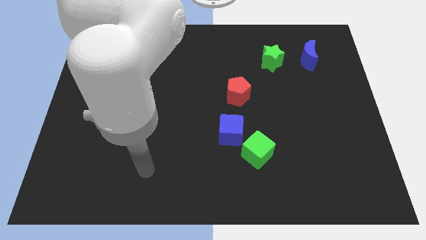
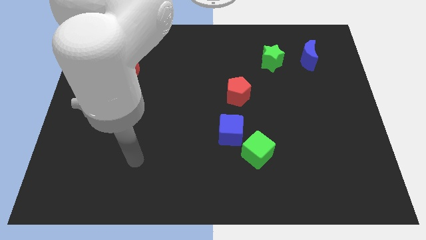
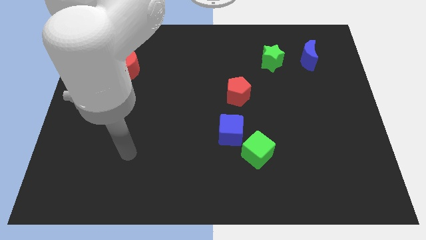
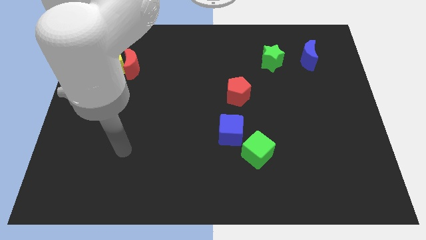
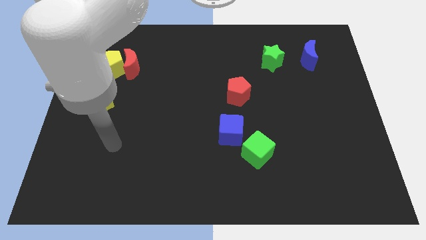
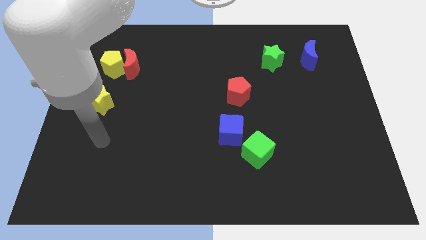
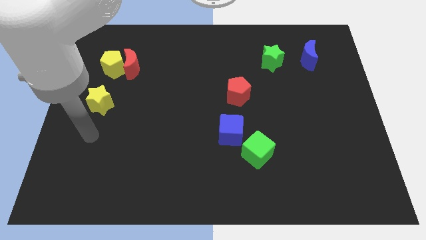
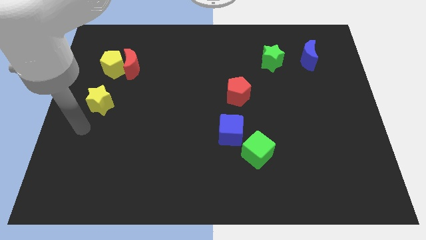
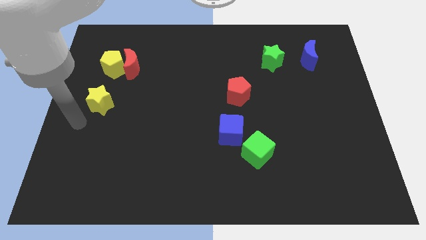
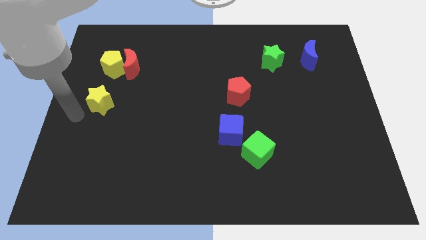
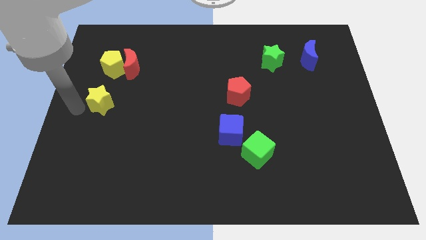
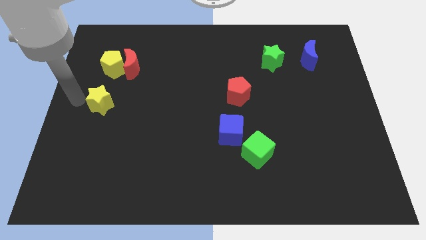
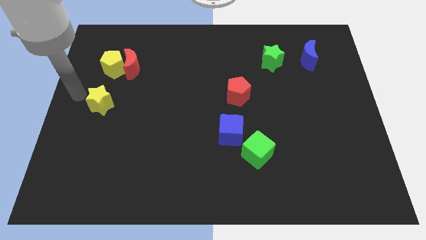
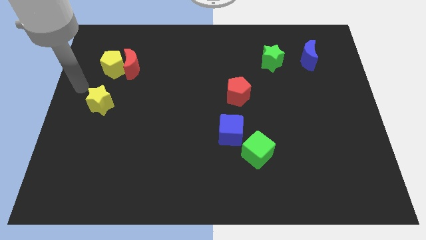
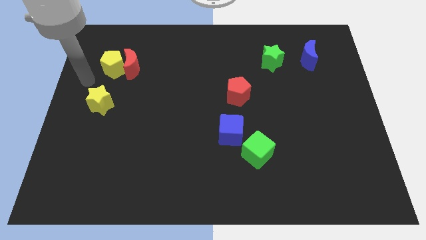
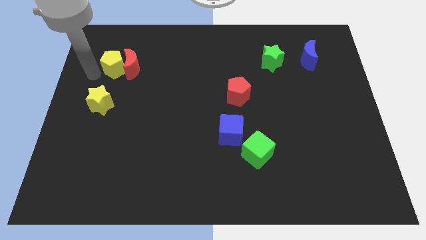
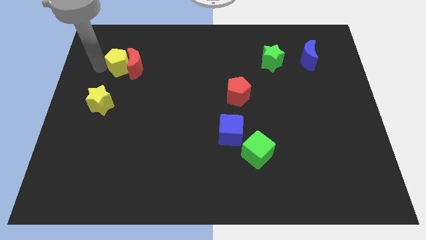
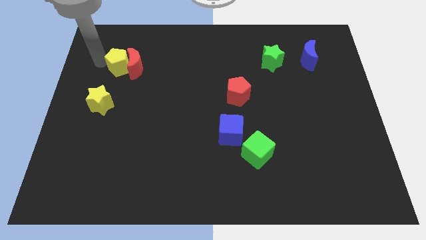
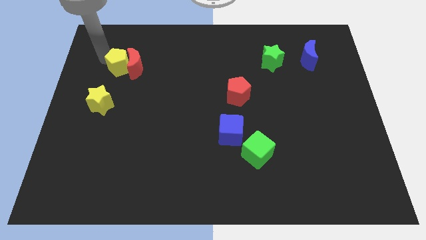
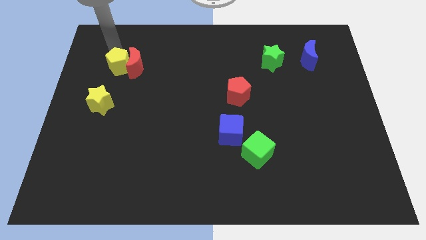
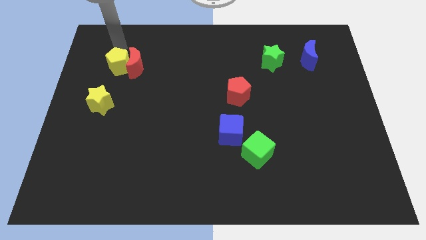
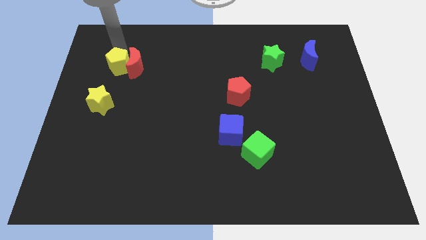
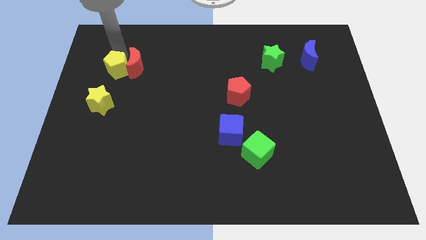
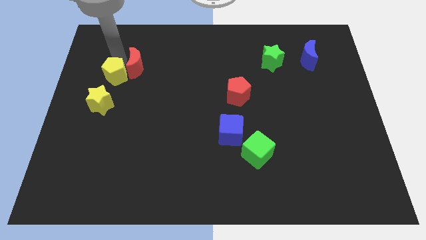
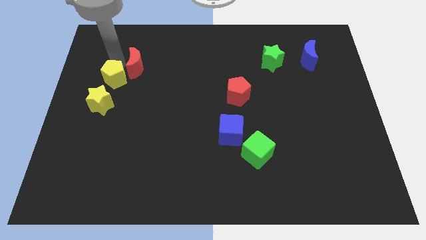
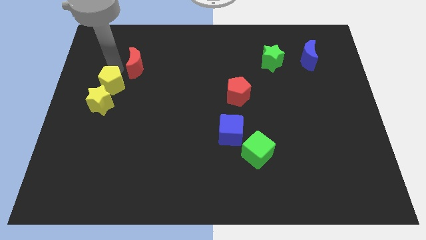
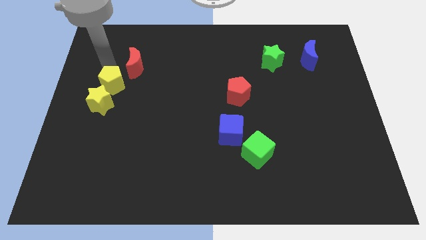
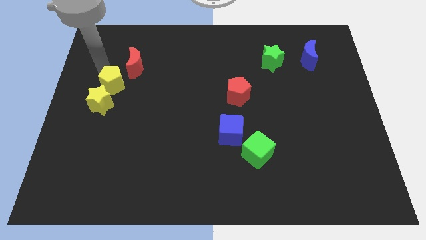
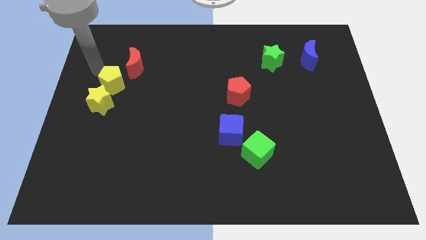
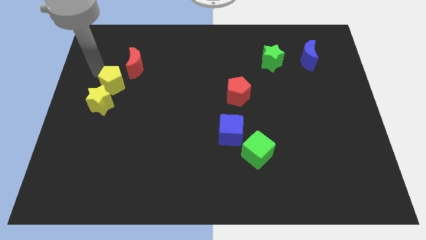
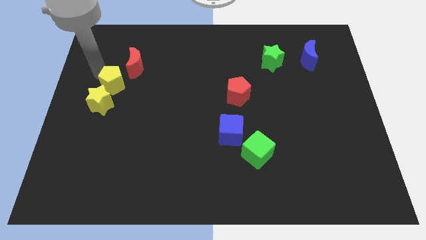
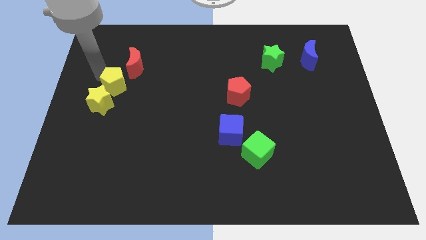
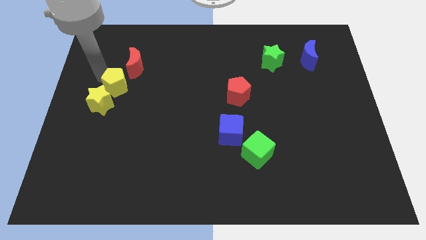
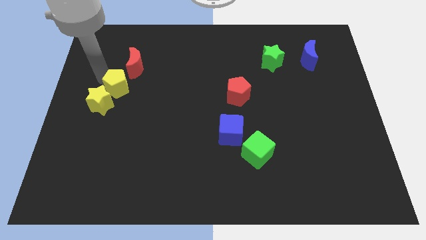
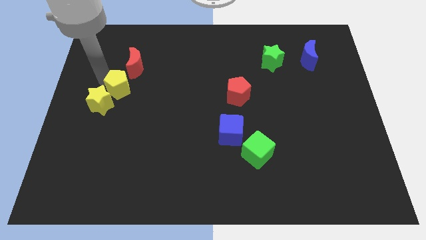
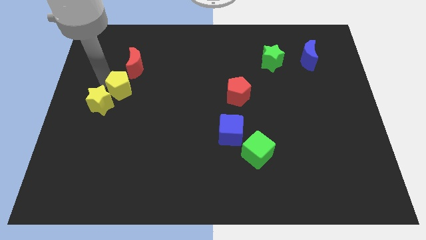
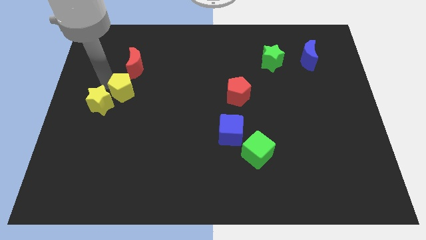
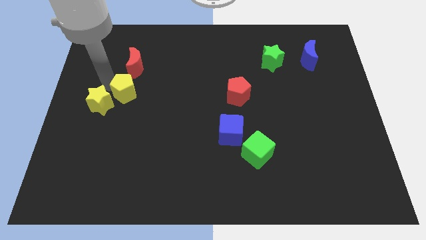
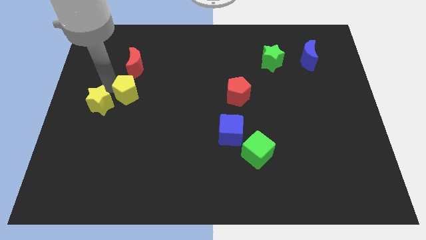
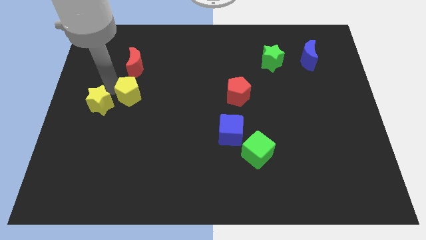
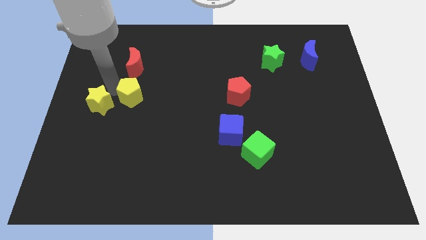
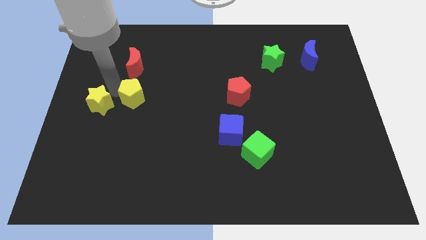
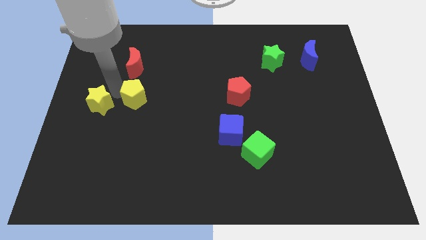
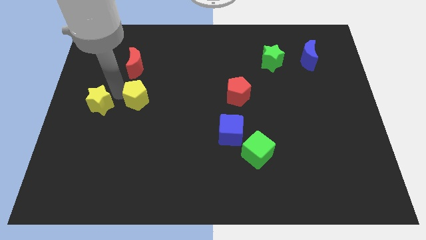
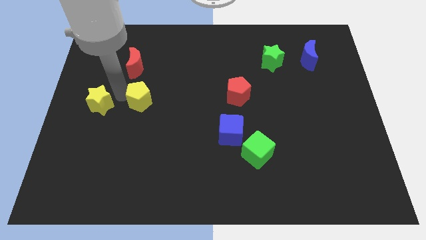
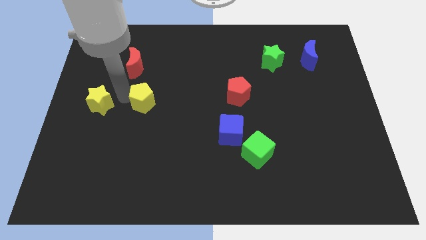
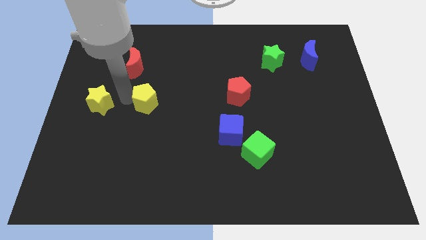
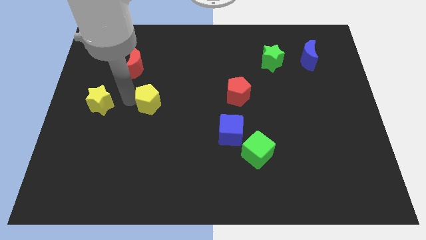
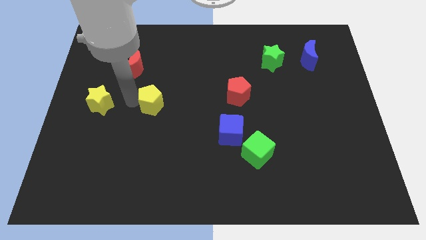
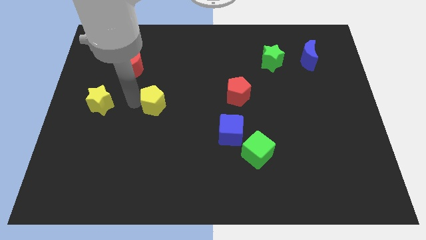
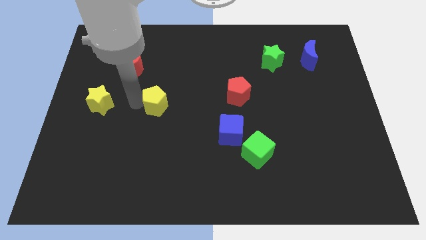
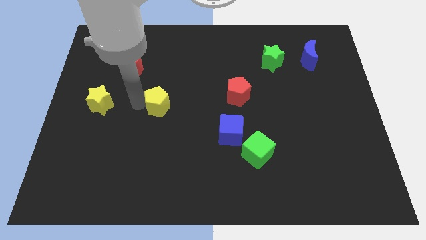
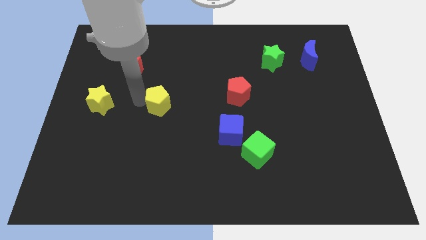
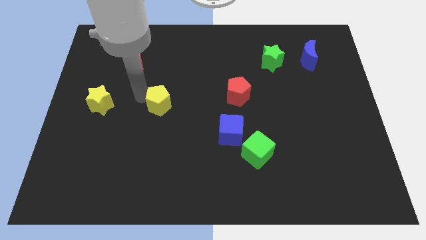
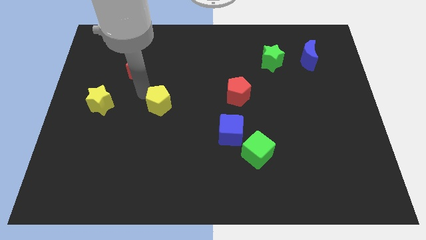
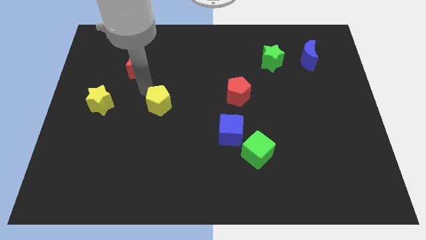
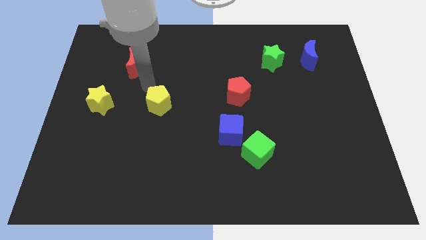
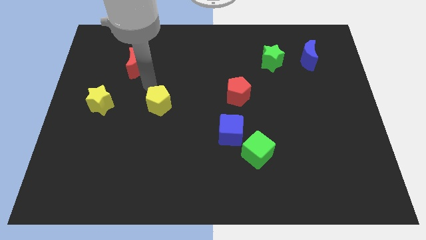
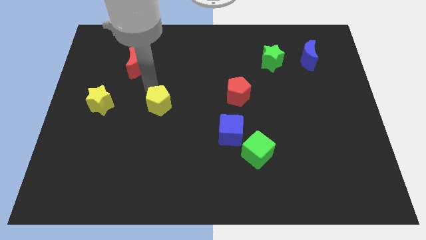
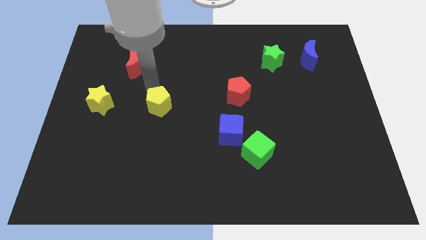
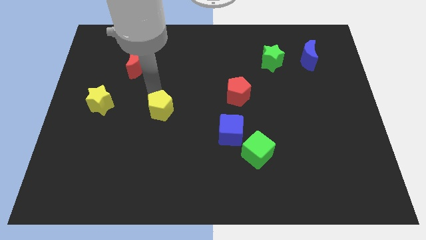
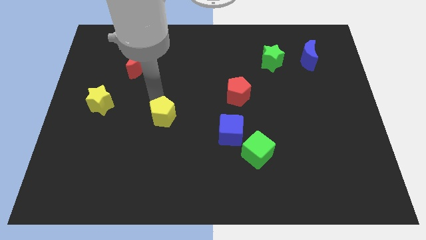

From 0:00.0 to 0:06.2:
move the yellow pentagon downwards and then right

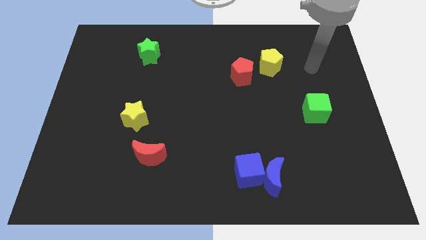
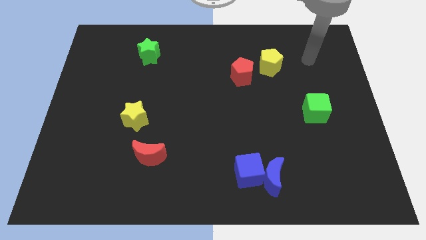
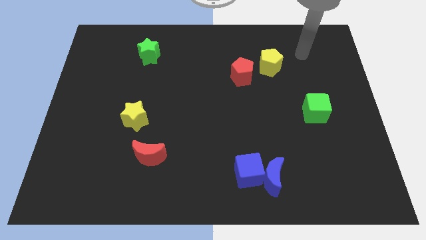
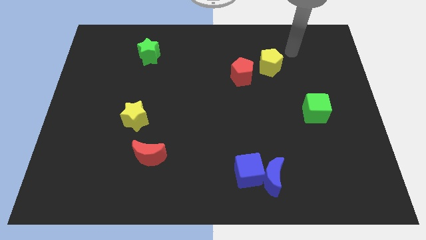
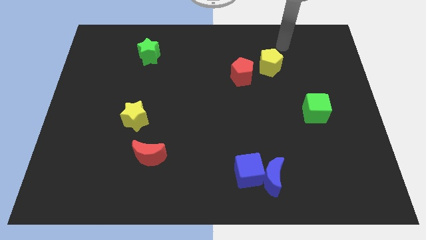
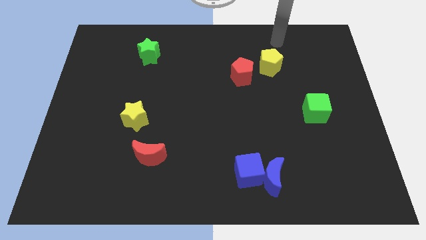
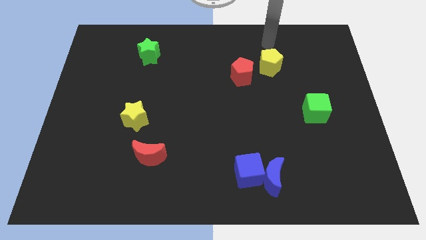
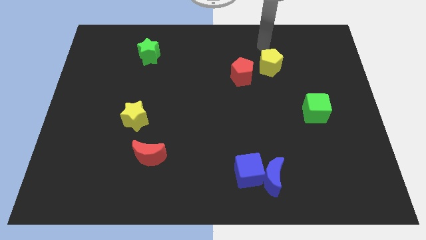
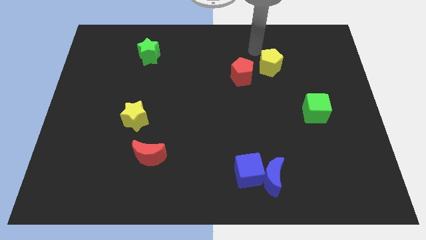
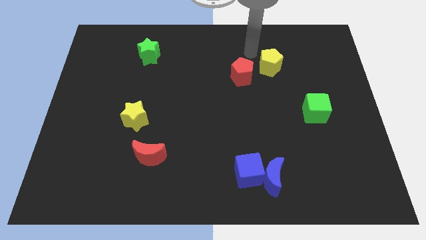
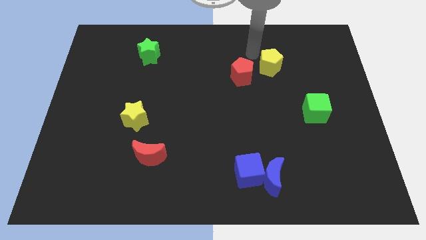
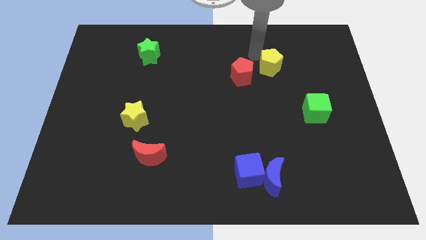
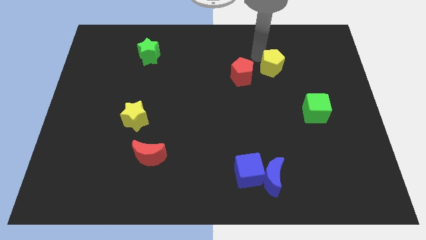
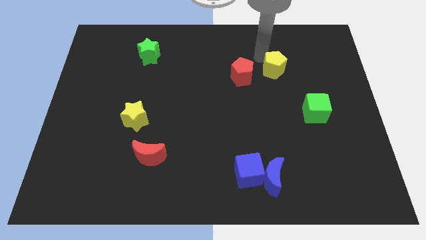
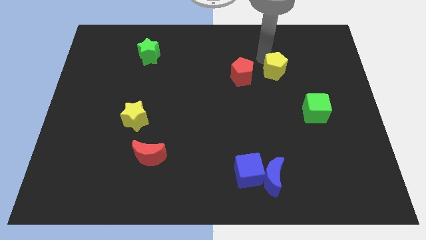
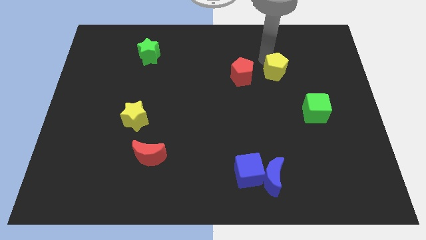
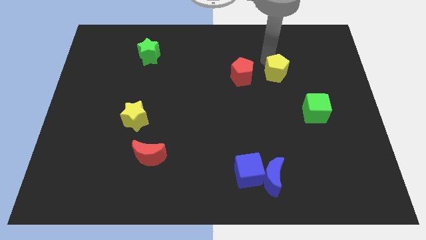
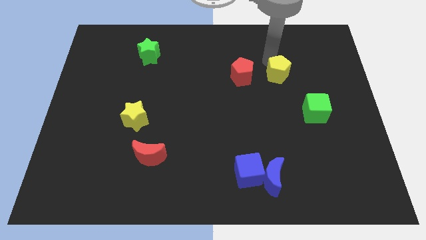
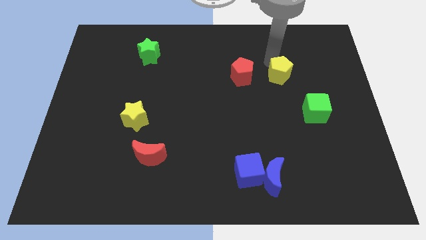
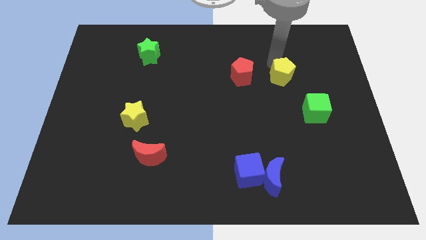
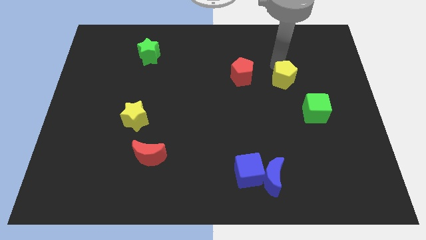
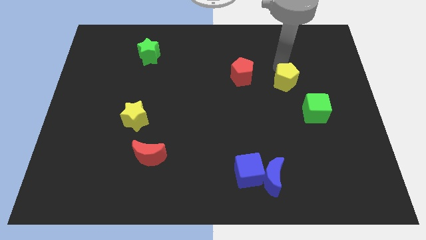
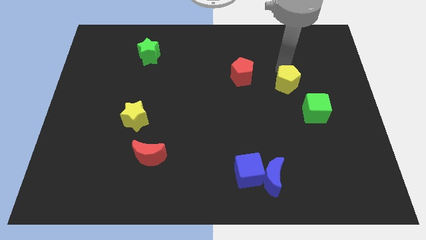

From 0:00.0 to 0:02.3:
push the yellow pentagon downwards and right slightly
